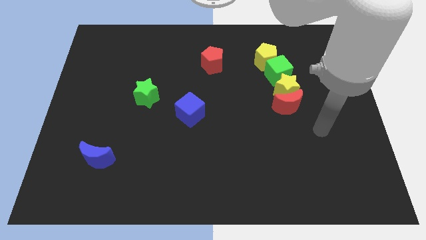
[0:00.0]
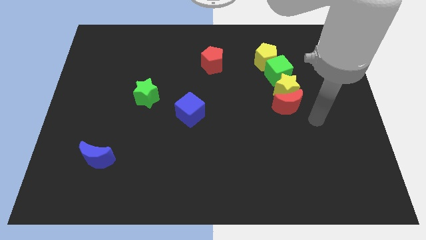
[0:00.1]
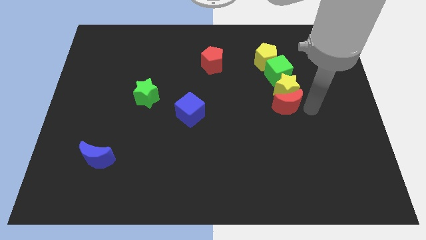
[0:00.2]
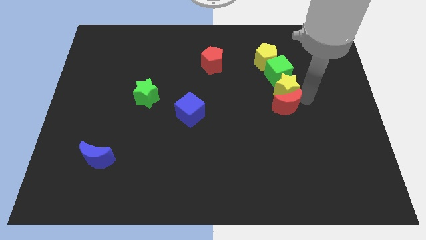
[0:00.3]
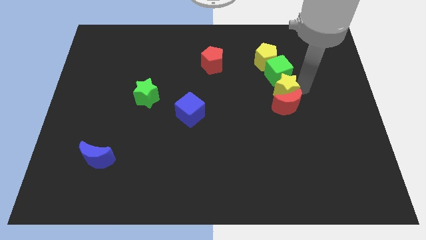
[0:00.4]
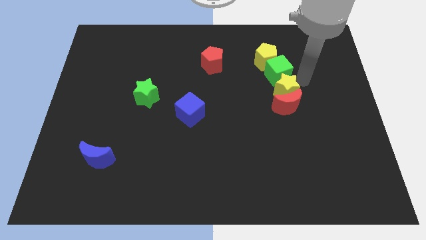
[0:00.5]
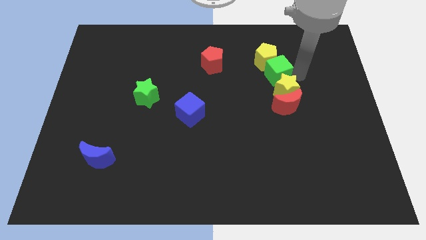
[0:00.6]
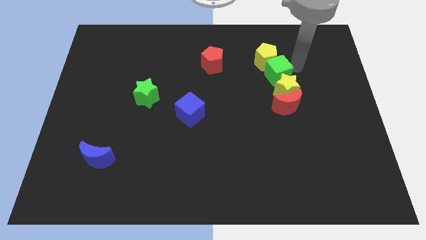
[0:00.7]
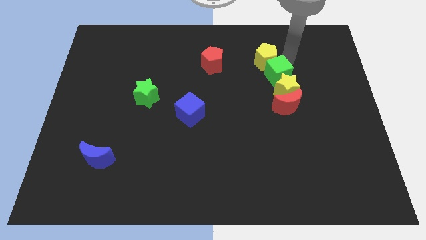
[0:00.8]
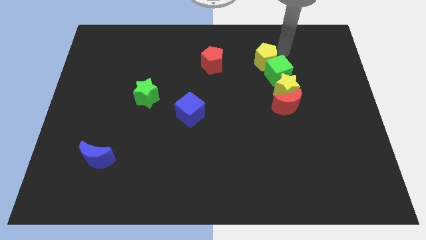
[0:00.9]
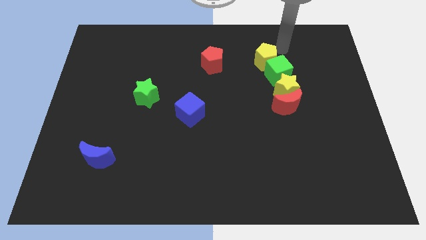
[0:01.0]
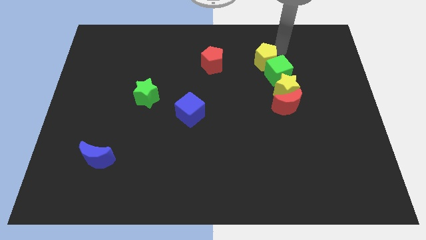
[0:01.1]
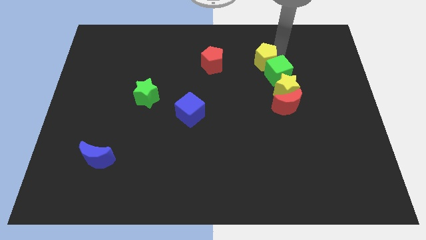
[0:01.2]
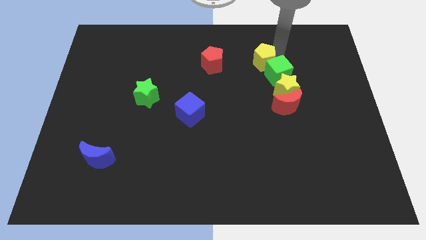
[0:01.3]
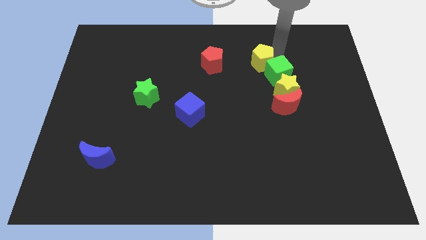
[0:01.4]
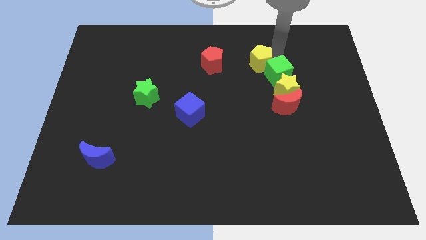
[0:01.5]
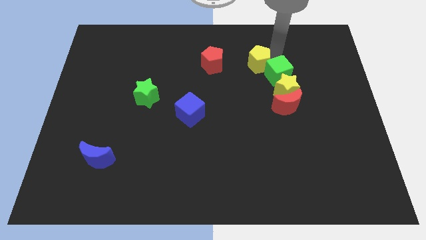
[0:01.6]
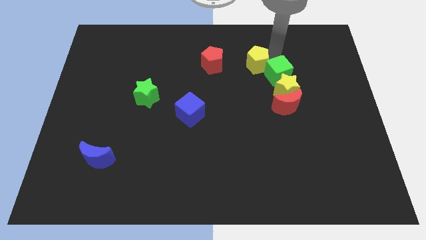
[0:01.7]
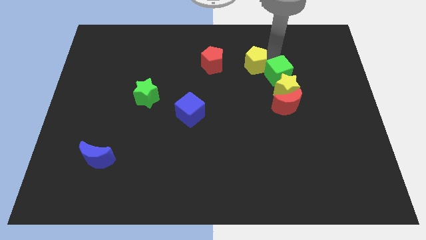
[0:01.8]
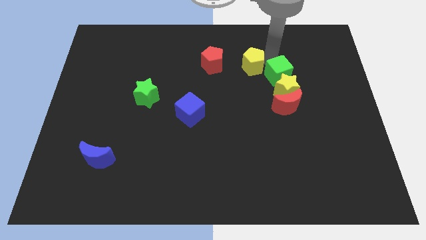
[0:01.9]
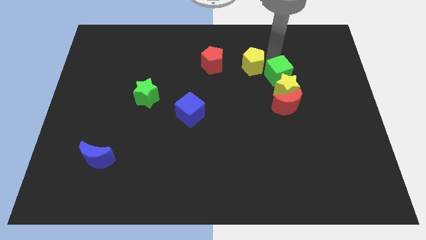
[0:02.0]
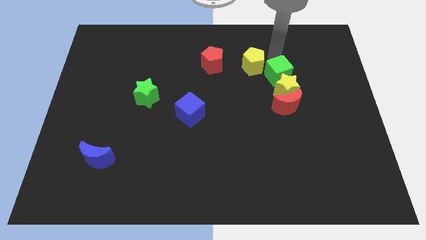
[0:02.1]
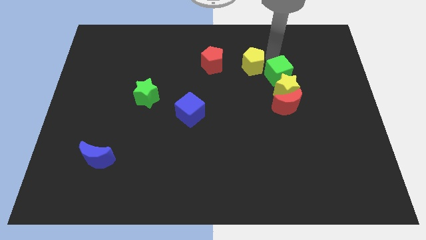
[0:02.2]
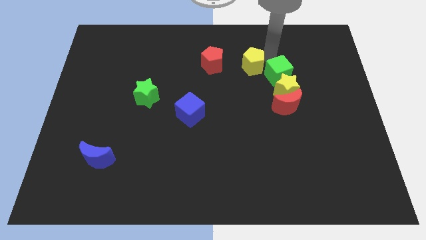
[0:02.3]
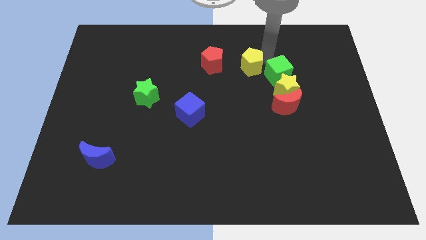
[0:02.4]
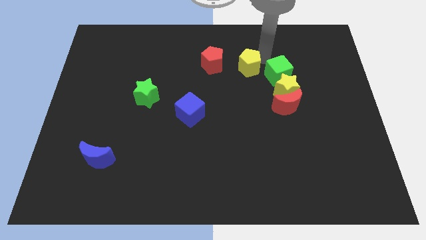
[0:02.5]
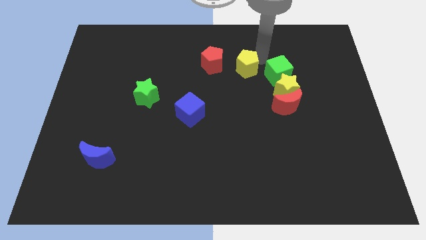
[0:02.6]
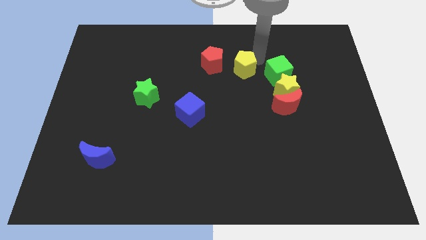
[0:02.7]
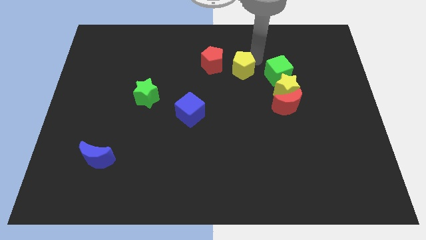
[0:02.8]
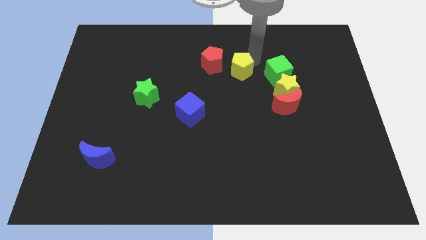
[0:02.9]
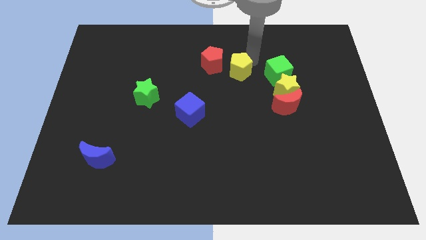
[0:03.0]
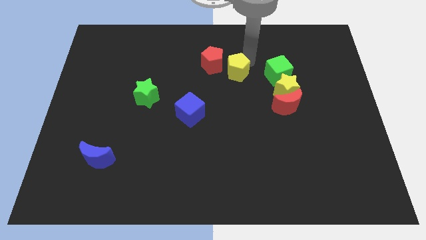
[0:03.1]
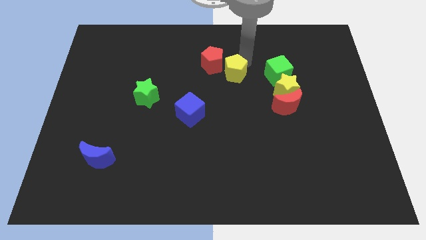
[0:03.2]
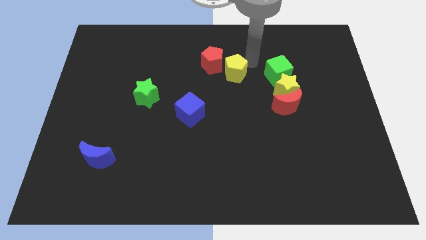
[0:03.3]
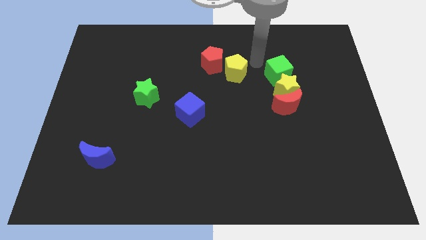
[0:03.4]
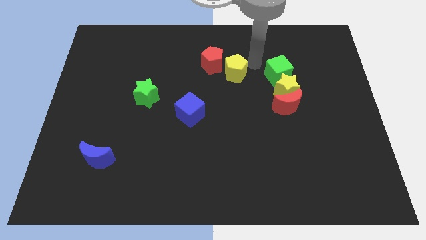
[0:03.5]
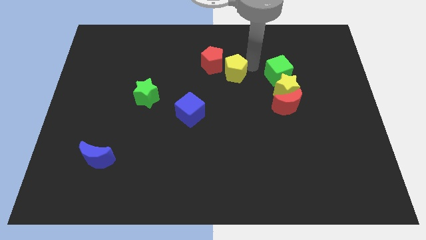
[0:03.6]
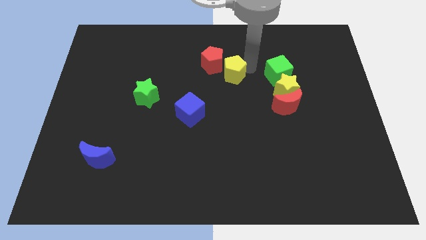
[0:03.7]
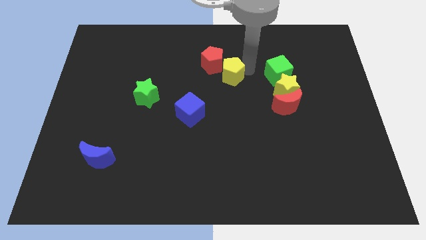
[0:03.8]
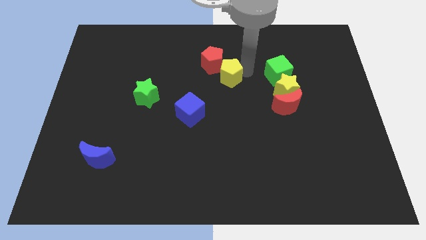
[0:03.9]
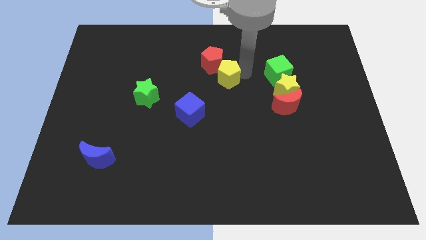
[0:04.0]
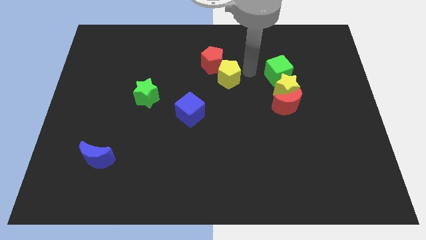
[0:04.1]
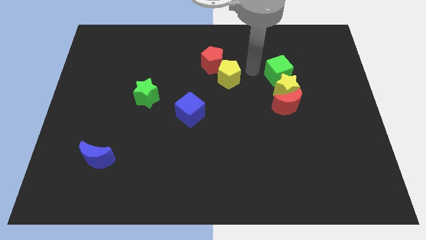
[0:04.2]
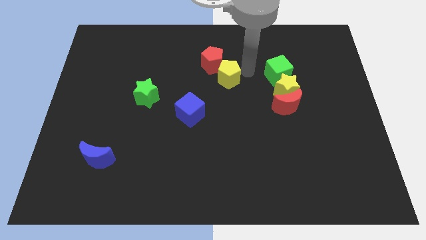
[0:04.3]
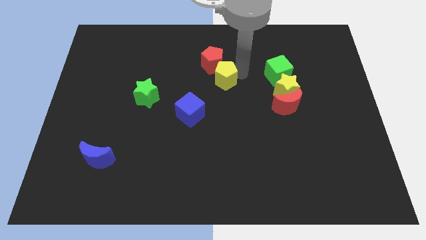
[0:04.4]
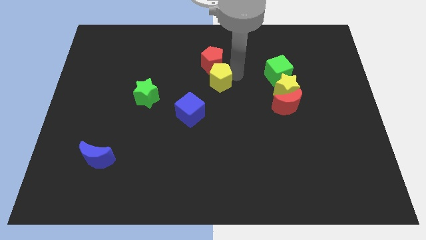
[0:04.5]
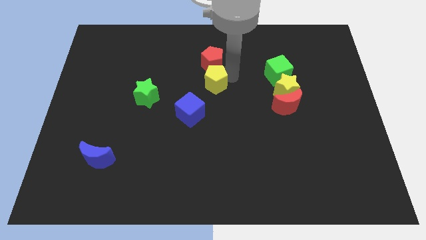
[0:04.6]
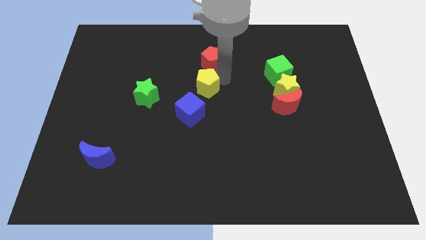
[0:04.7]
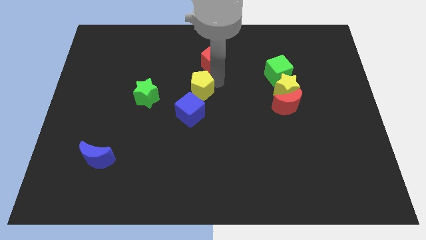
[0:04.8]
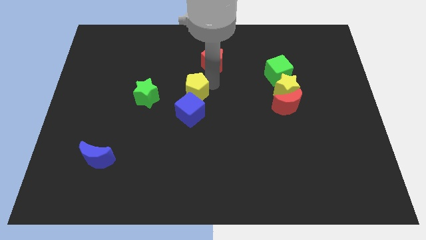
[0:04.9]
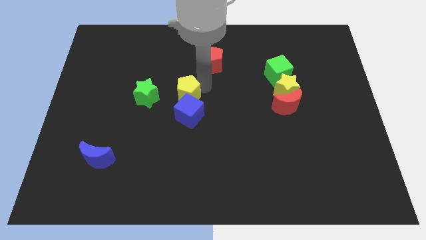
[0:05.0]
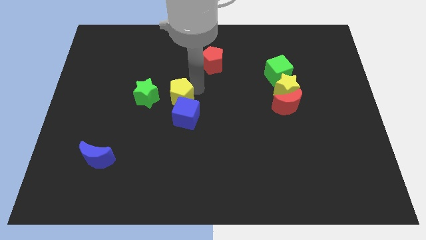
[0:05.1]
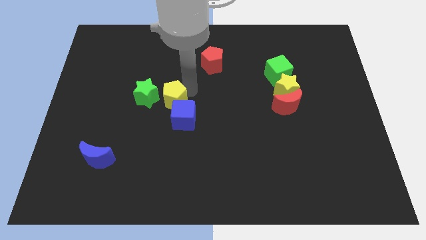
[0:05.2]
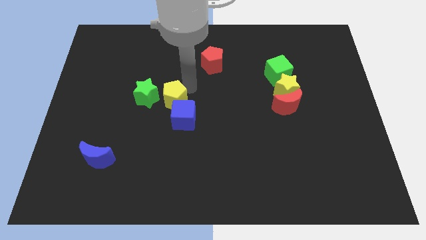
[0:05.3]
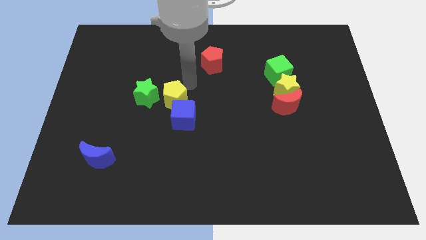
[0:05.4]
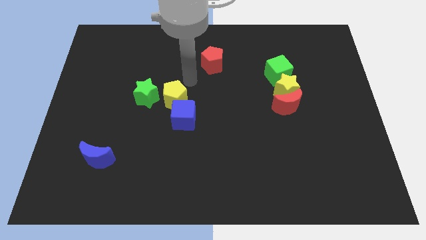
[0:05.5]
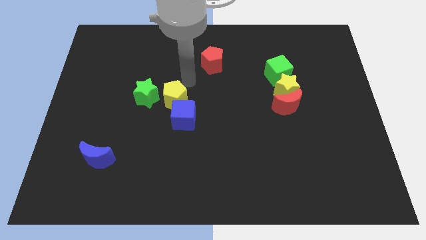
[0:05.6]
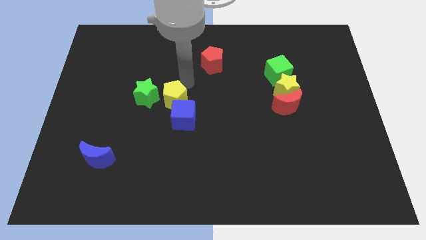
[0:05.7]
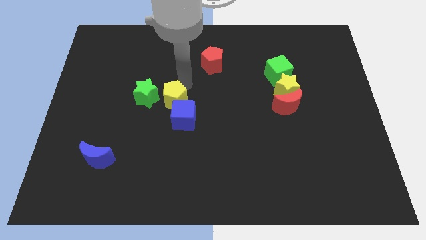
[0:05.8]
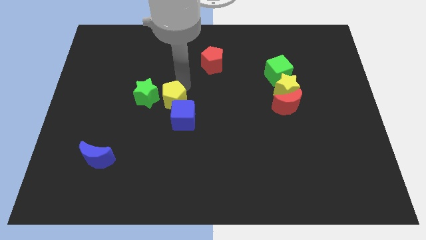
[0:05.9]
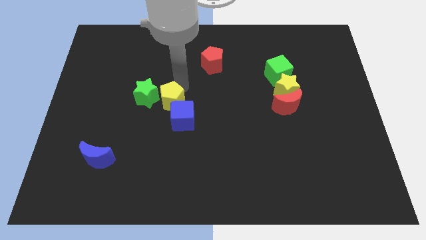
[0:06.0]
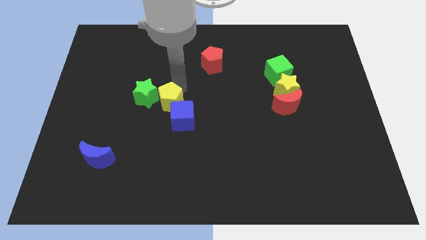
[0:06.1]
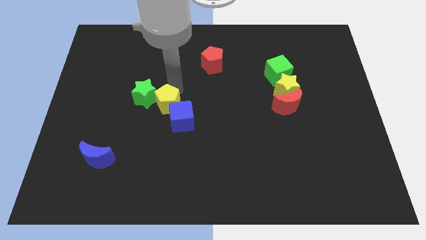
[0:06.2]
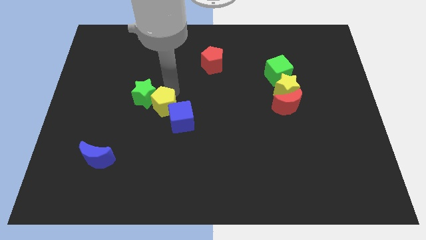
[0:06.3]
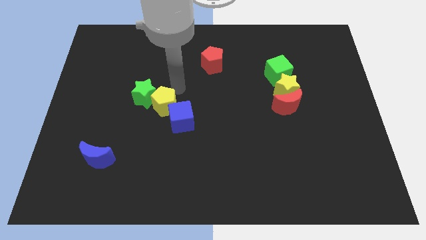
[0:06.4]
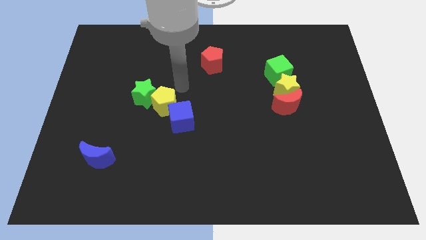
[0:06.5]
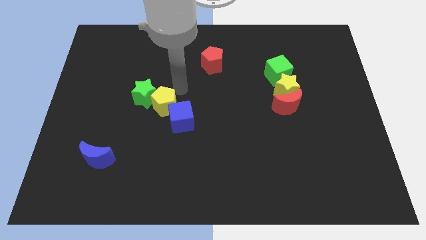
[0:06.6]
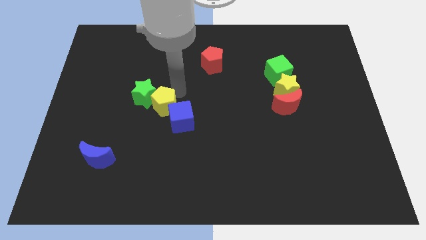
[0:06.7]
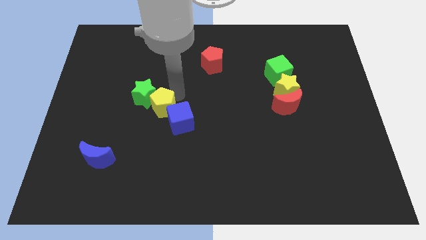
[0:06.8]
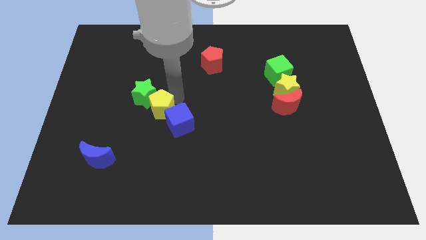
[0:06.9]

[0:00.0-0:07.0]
slide the yellow pentagon to the bottom of the green star
